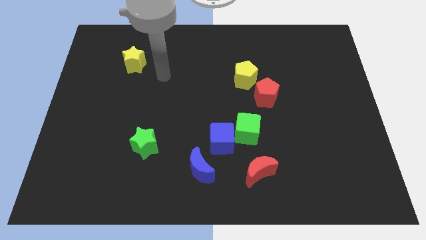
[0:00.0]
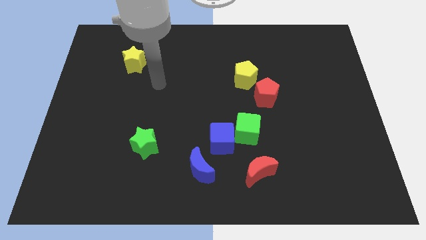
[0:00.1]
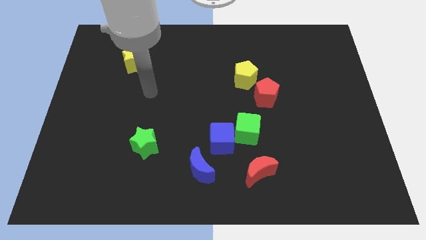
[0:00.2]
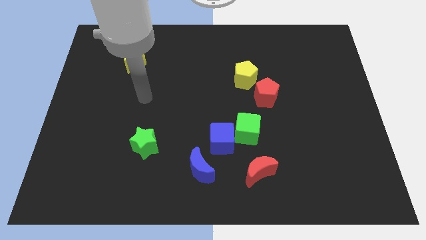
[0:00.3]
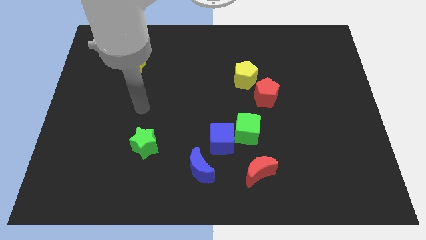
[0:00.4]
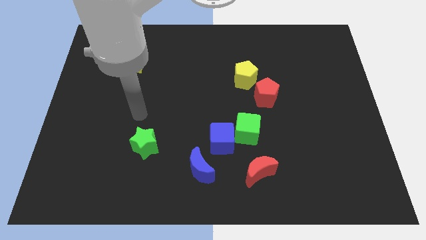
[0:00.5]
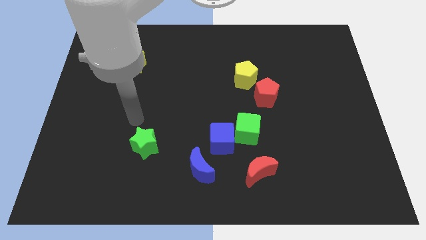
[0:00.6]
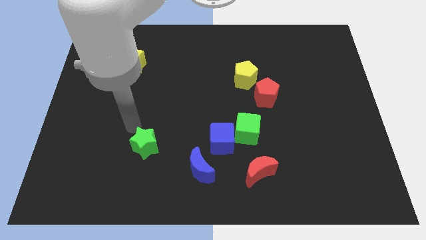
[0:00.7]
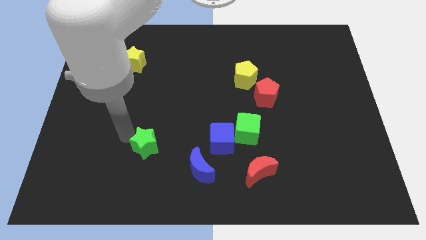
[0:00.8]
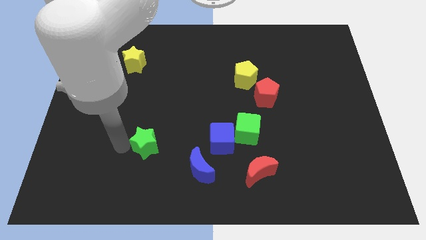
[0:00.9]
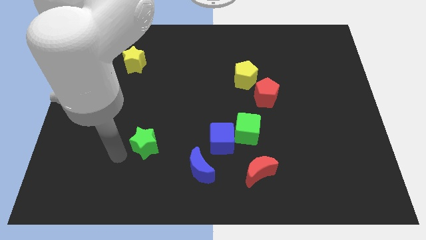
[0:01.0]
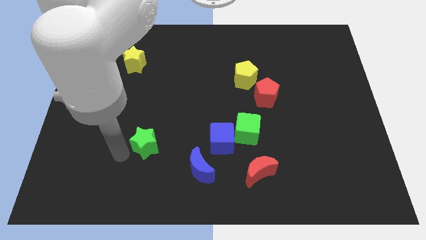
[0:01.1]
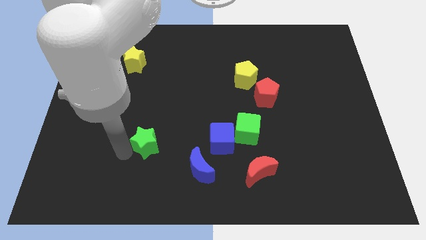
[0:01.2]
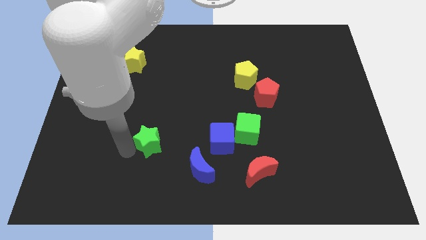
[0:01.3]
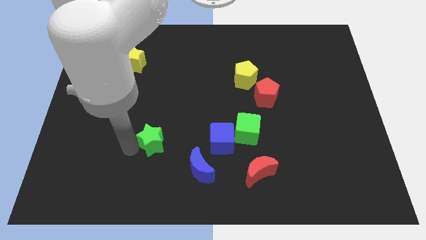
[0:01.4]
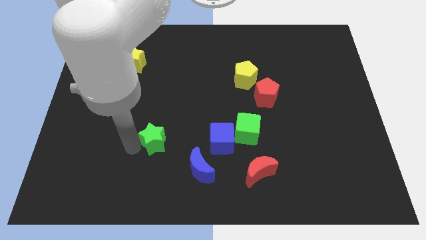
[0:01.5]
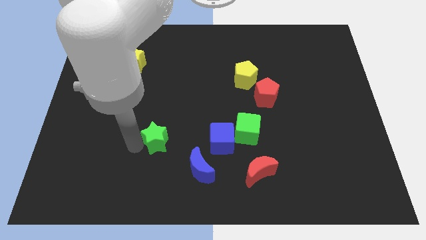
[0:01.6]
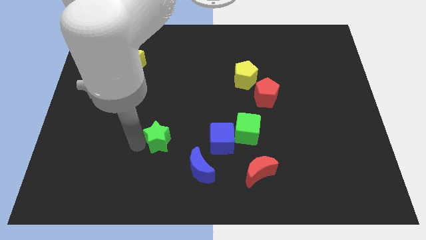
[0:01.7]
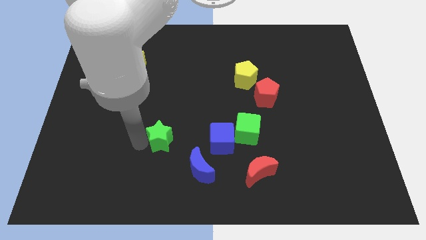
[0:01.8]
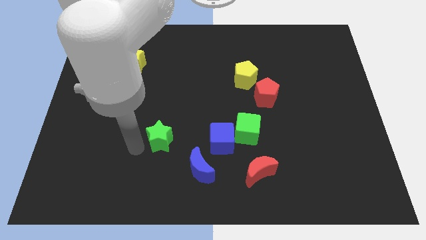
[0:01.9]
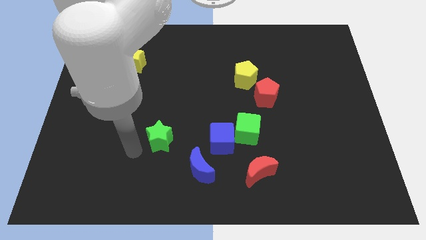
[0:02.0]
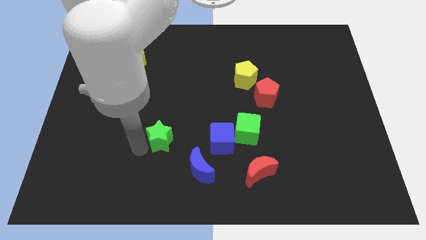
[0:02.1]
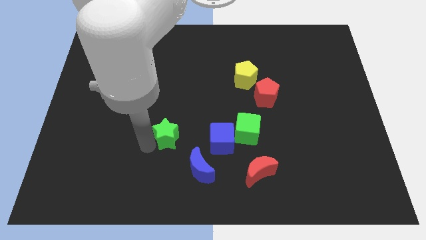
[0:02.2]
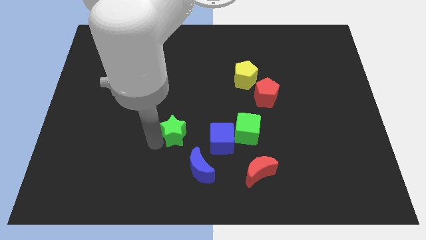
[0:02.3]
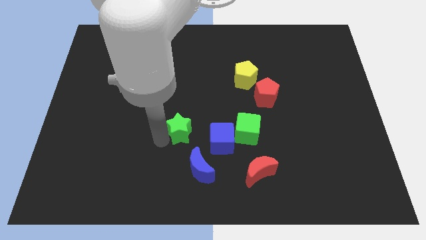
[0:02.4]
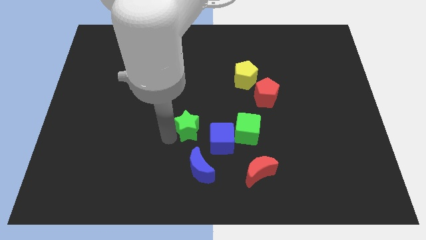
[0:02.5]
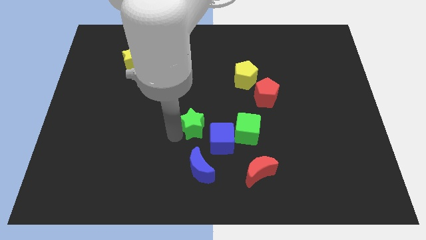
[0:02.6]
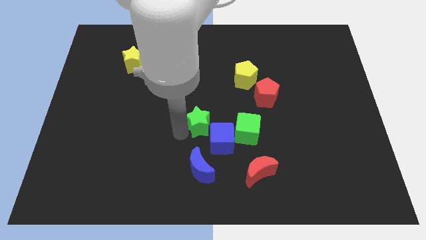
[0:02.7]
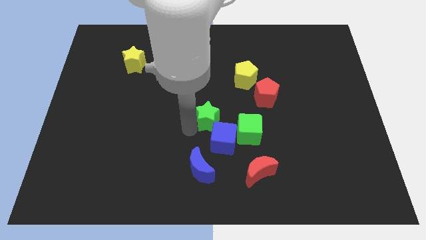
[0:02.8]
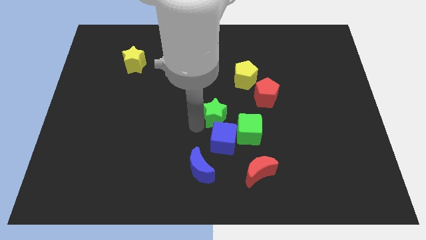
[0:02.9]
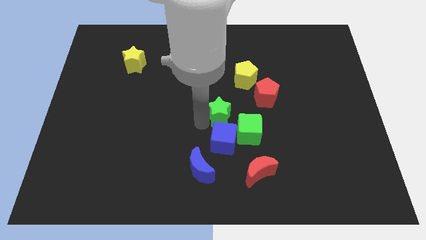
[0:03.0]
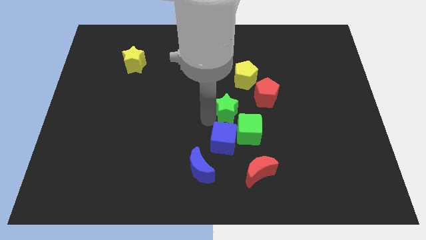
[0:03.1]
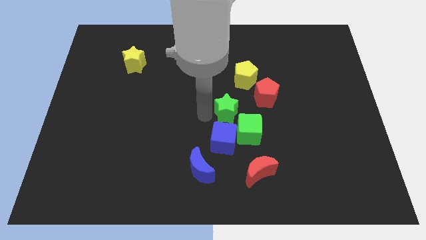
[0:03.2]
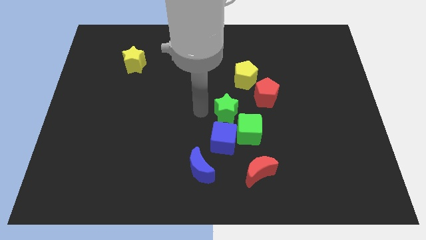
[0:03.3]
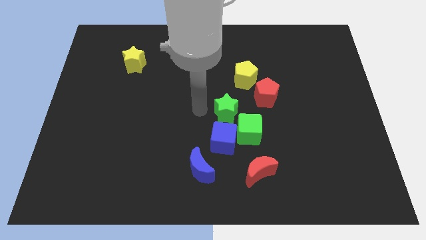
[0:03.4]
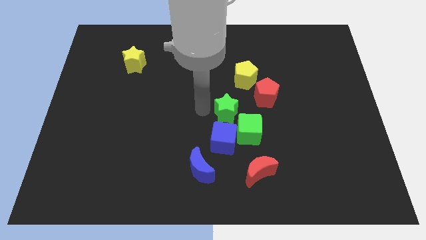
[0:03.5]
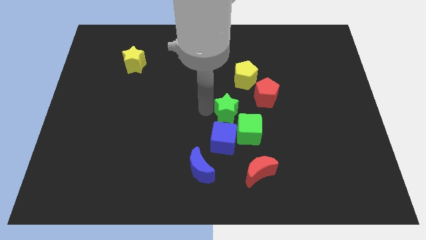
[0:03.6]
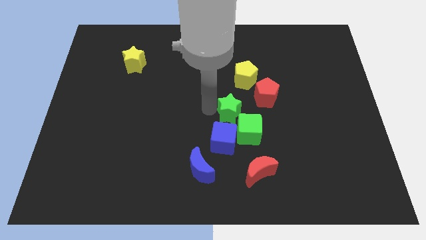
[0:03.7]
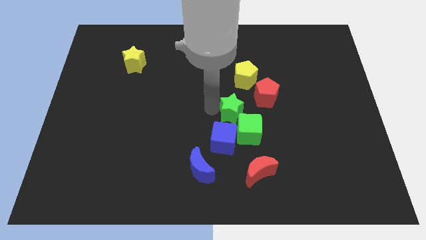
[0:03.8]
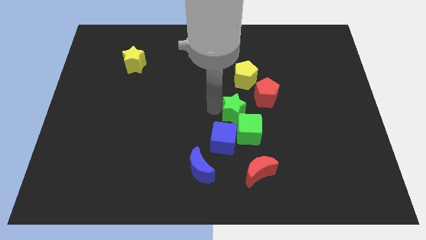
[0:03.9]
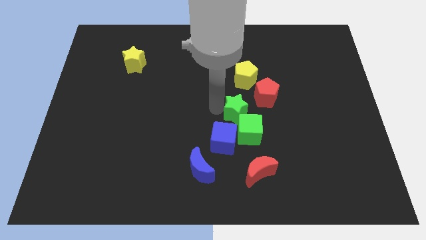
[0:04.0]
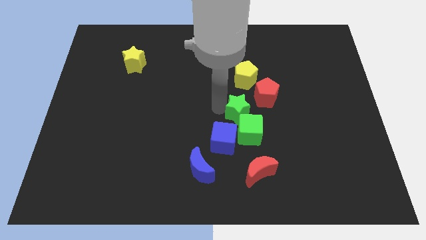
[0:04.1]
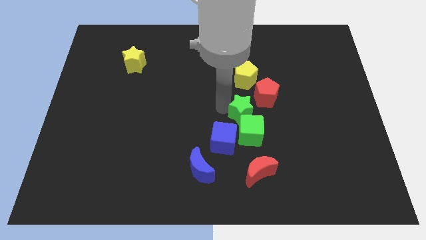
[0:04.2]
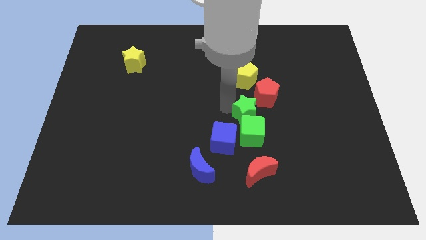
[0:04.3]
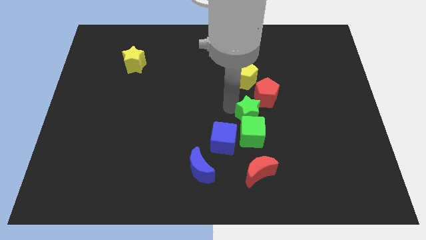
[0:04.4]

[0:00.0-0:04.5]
slide the green star to the right

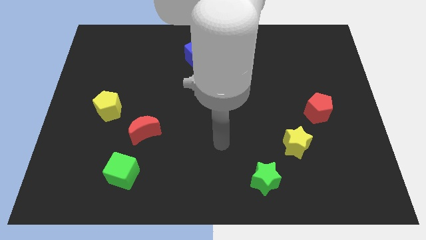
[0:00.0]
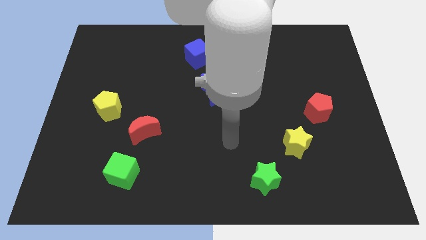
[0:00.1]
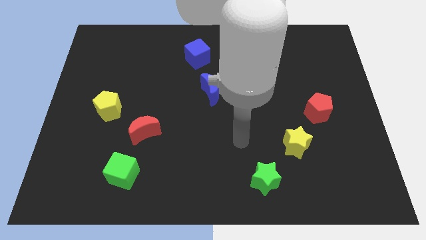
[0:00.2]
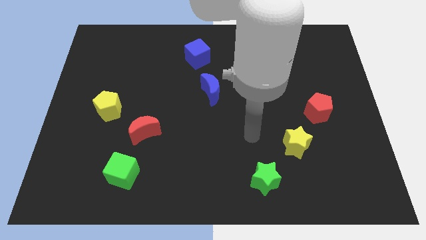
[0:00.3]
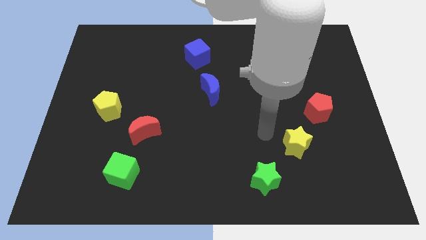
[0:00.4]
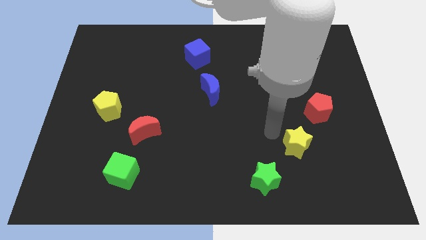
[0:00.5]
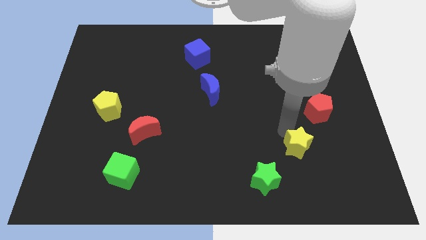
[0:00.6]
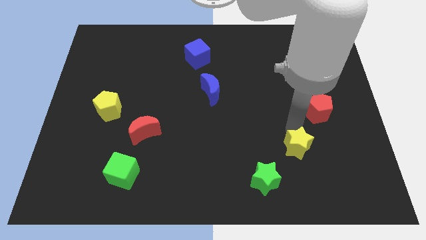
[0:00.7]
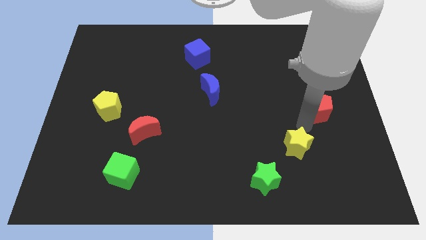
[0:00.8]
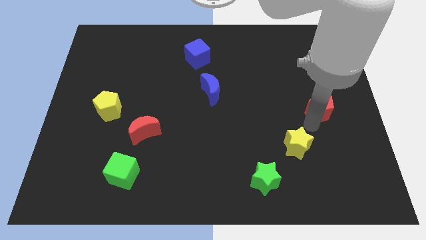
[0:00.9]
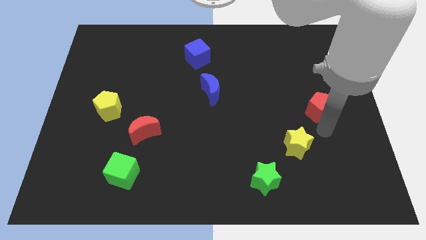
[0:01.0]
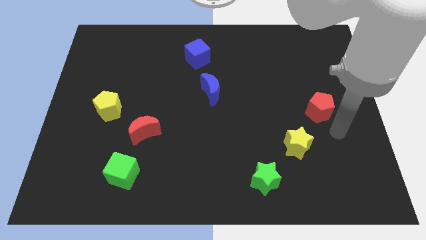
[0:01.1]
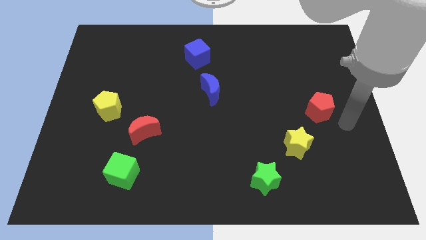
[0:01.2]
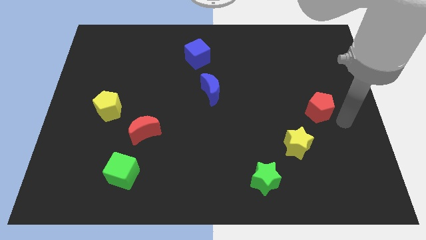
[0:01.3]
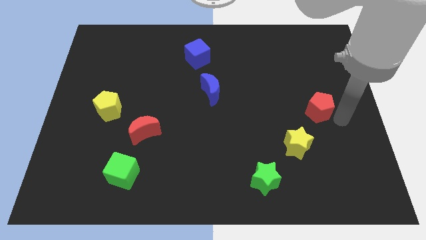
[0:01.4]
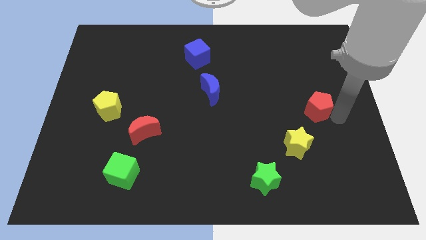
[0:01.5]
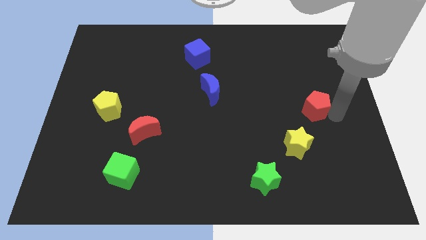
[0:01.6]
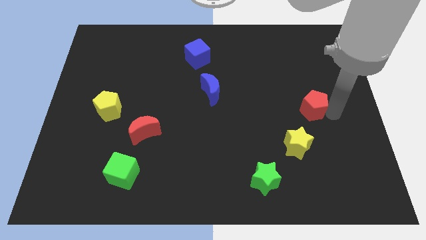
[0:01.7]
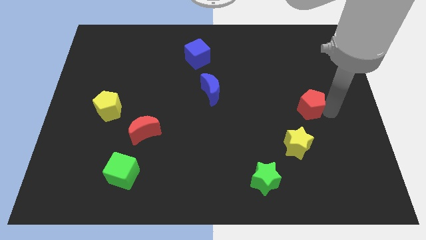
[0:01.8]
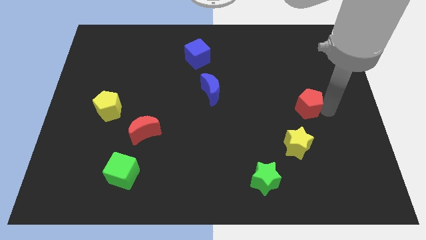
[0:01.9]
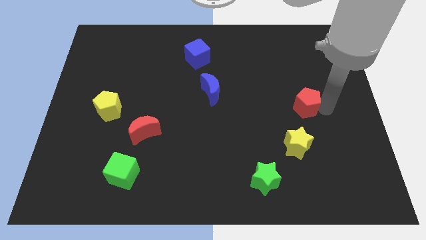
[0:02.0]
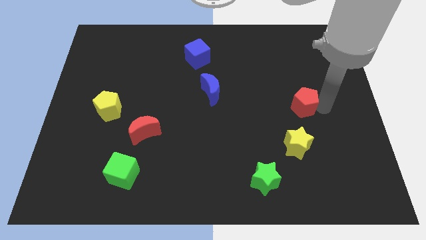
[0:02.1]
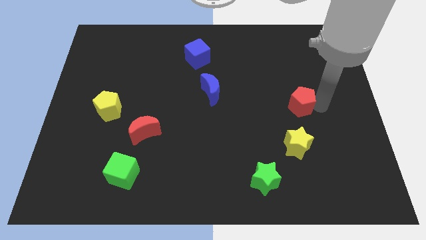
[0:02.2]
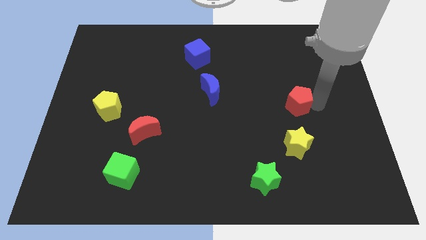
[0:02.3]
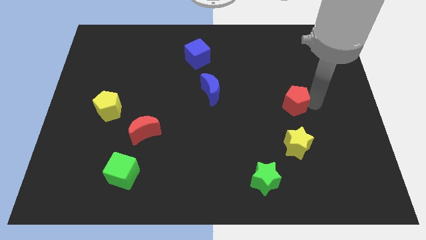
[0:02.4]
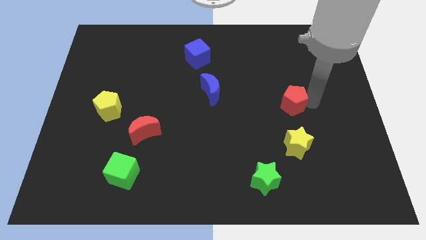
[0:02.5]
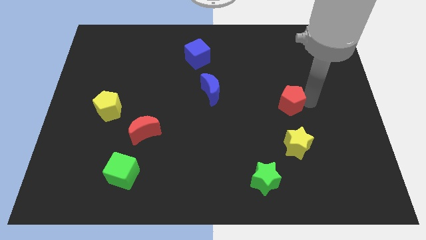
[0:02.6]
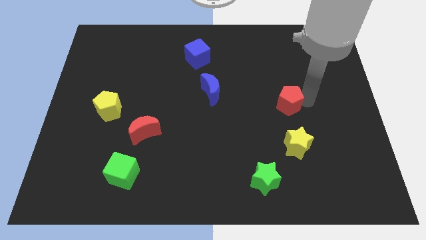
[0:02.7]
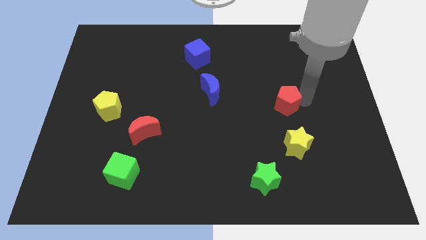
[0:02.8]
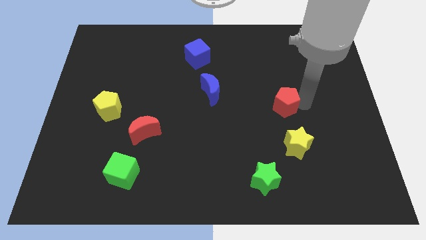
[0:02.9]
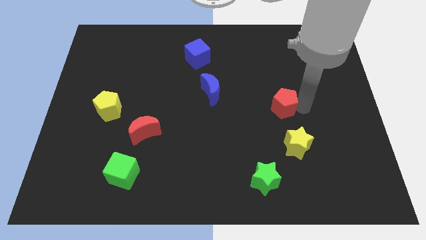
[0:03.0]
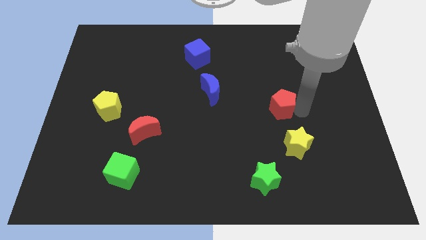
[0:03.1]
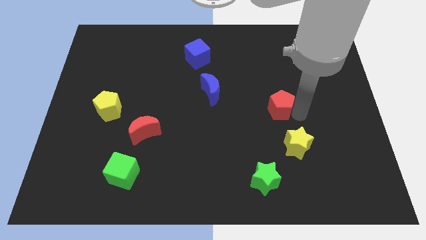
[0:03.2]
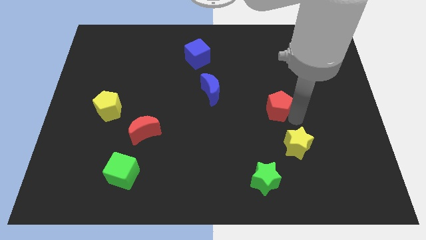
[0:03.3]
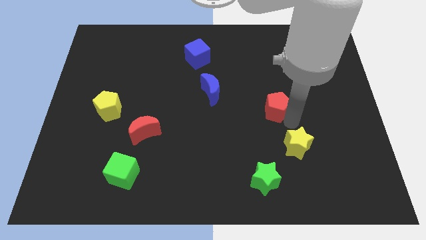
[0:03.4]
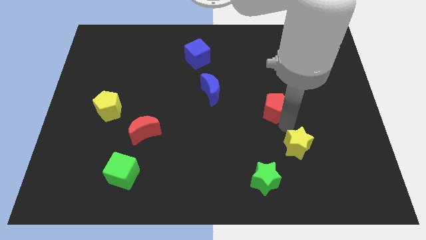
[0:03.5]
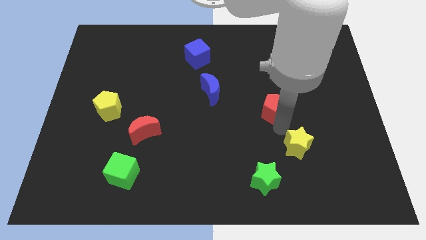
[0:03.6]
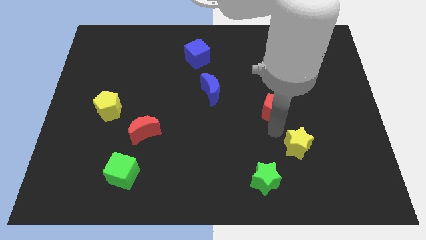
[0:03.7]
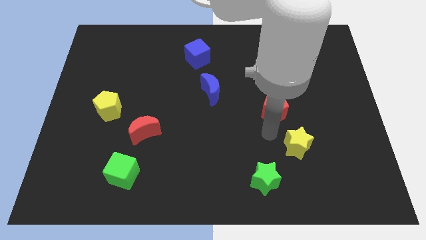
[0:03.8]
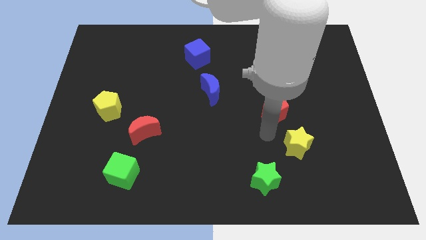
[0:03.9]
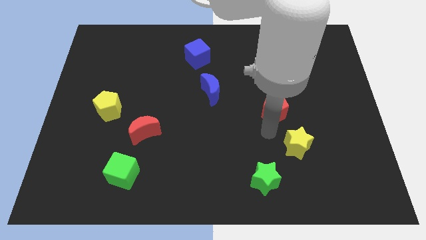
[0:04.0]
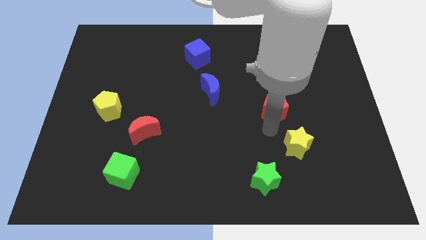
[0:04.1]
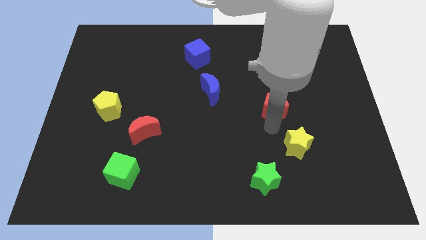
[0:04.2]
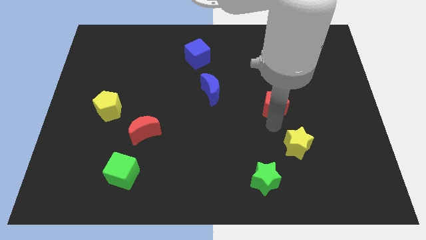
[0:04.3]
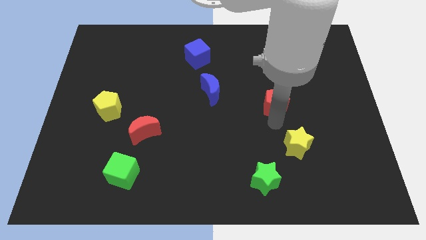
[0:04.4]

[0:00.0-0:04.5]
push the red pentagon diagonally up and left a little
